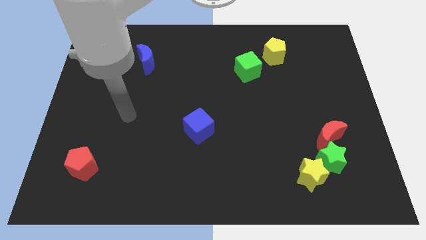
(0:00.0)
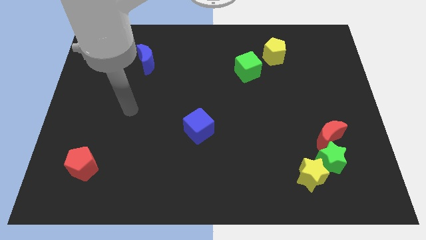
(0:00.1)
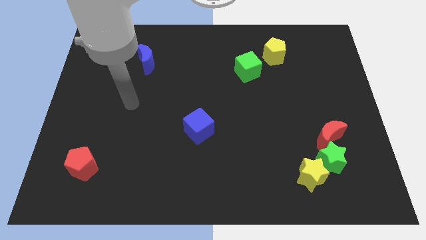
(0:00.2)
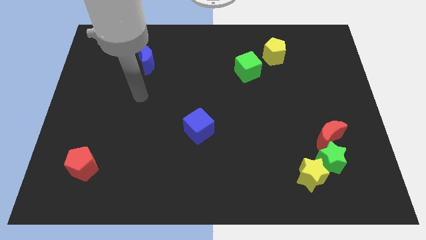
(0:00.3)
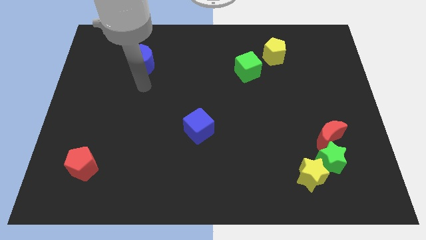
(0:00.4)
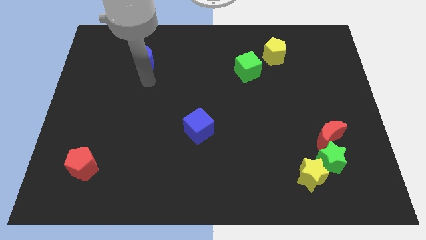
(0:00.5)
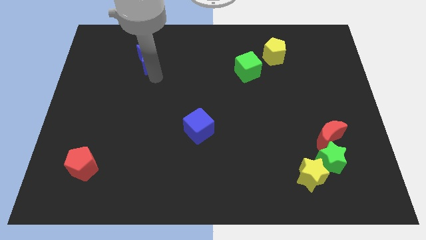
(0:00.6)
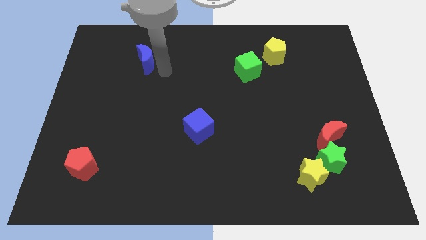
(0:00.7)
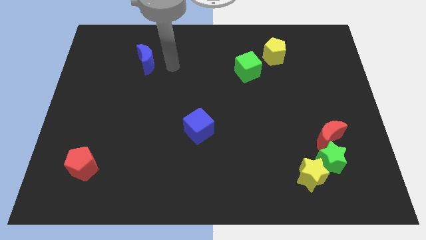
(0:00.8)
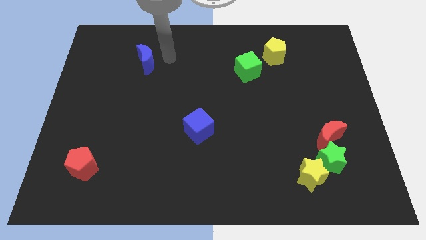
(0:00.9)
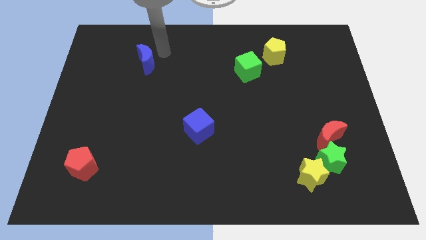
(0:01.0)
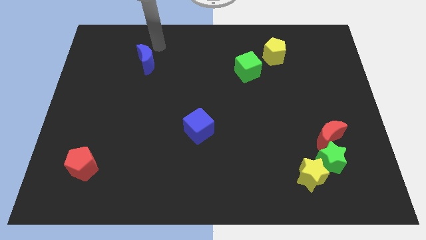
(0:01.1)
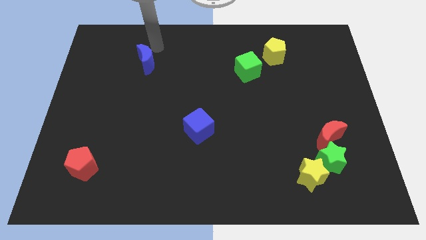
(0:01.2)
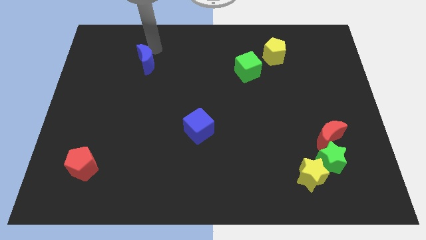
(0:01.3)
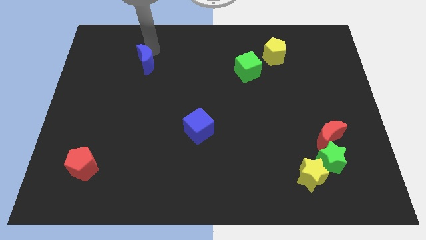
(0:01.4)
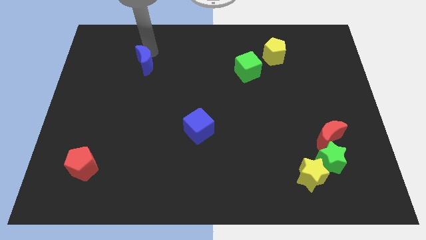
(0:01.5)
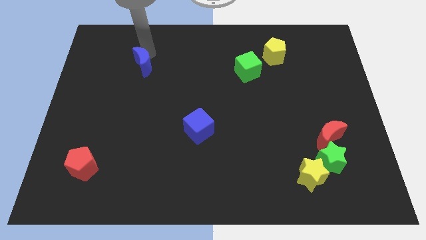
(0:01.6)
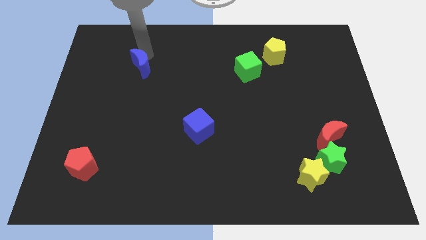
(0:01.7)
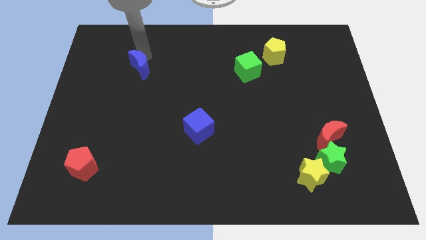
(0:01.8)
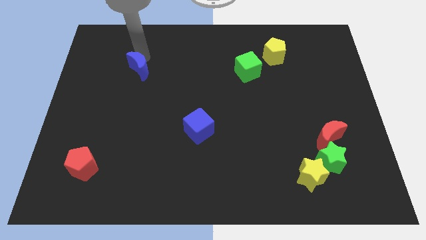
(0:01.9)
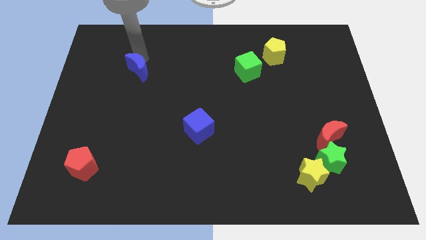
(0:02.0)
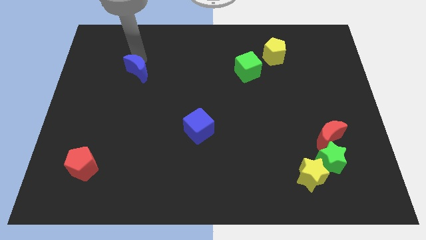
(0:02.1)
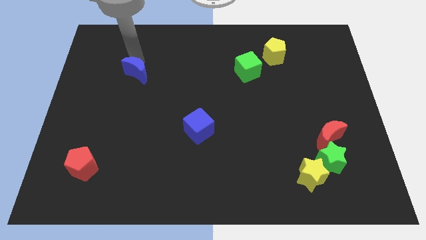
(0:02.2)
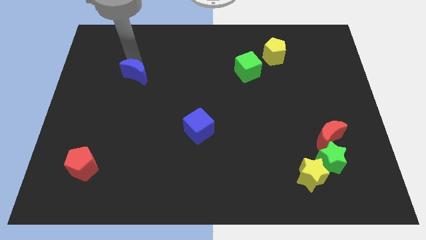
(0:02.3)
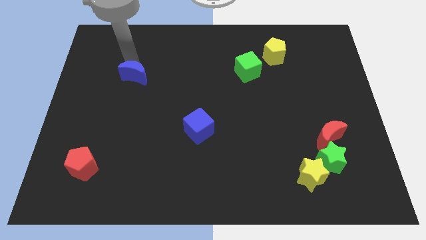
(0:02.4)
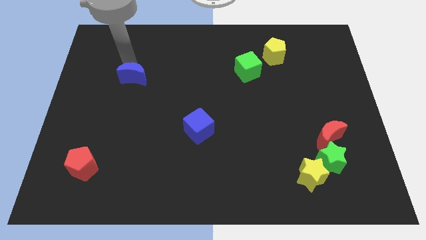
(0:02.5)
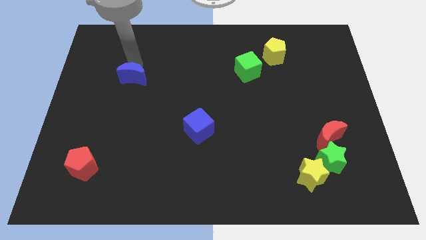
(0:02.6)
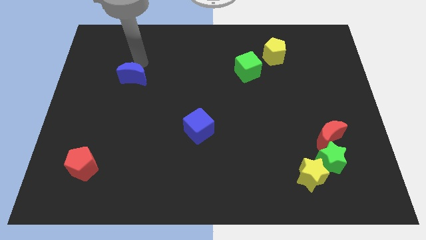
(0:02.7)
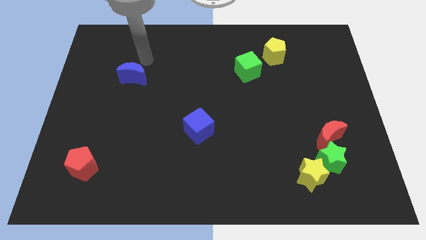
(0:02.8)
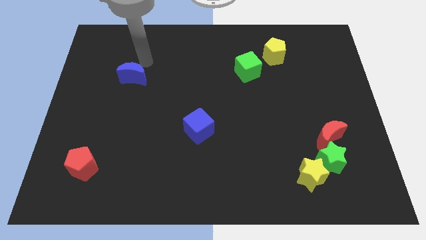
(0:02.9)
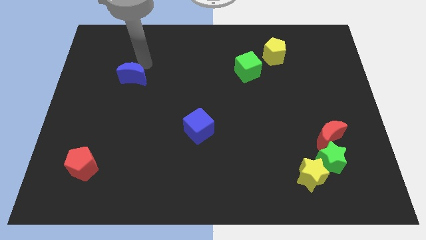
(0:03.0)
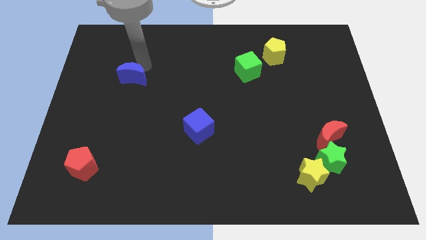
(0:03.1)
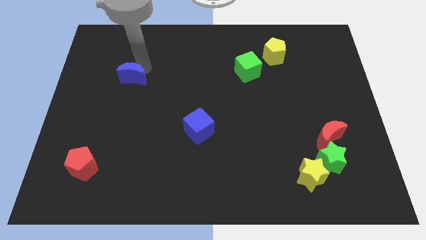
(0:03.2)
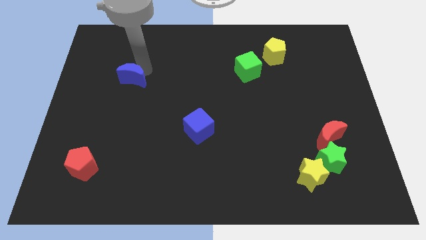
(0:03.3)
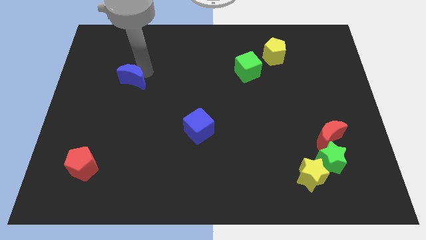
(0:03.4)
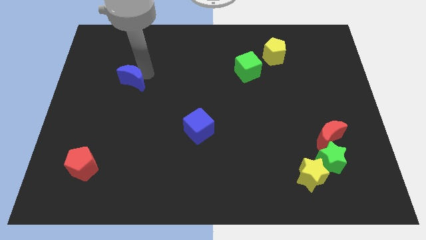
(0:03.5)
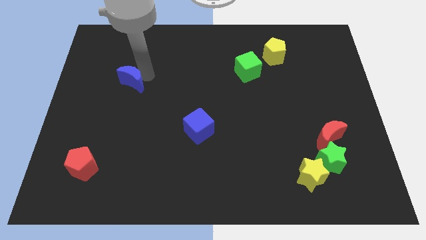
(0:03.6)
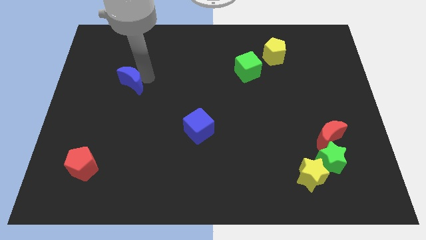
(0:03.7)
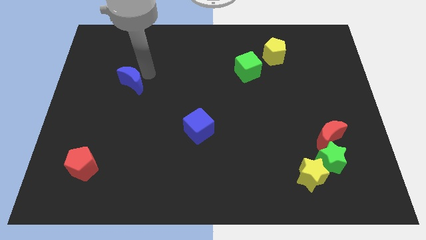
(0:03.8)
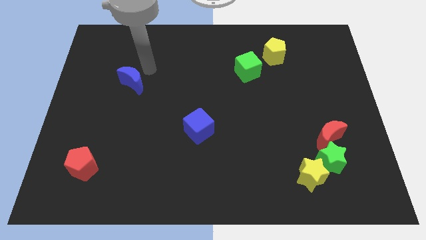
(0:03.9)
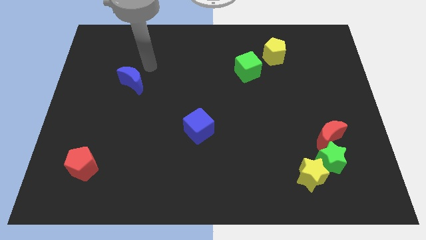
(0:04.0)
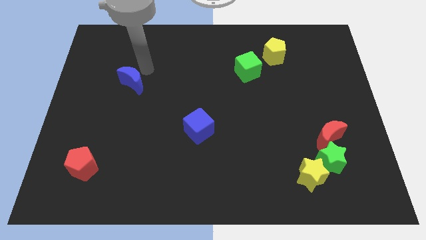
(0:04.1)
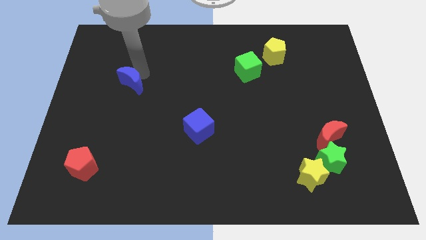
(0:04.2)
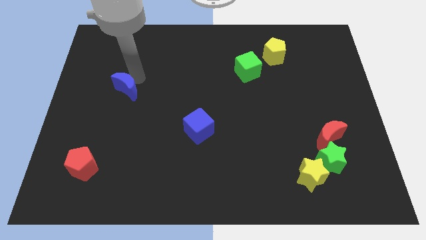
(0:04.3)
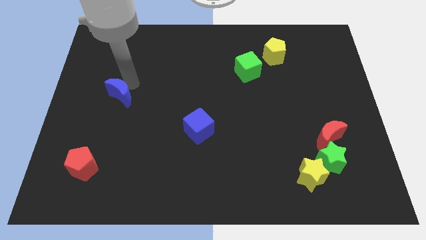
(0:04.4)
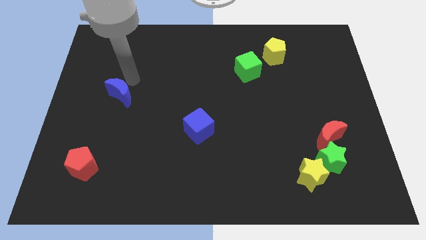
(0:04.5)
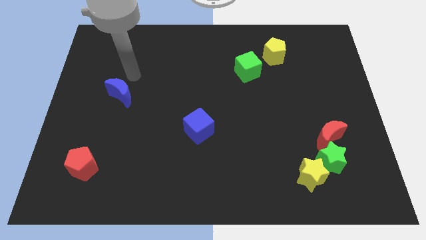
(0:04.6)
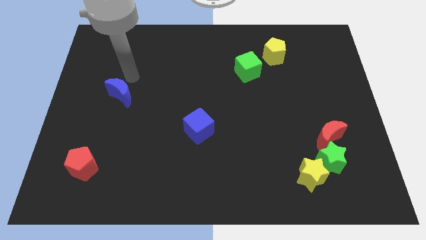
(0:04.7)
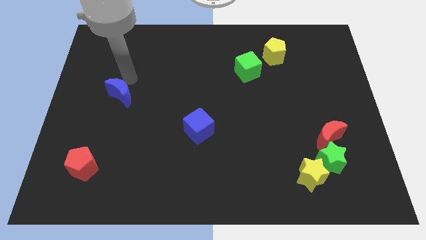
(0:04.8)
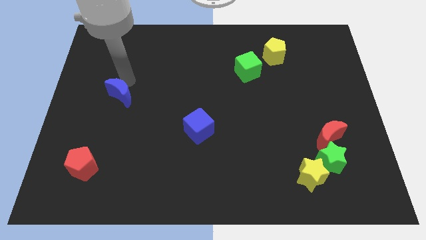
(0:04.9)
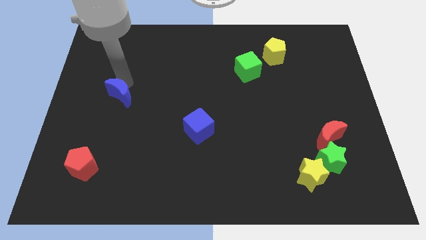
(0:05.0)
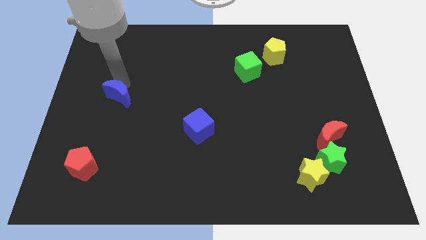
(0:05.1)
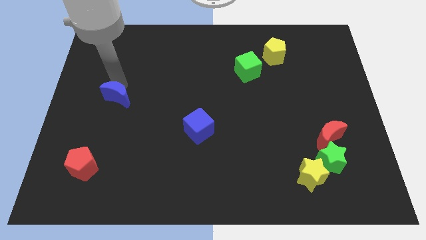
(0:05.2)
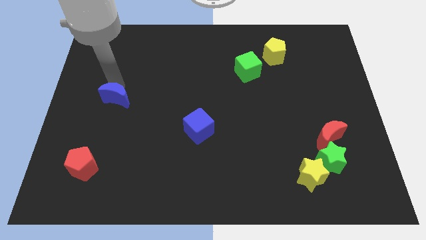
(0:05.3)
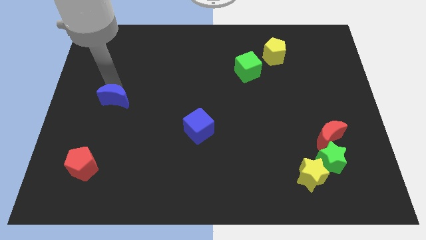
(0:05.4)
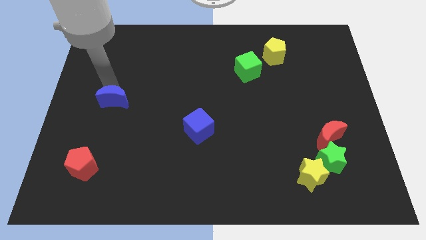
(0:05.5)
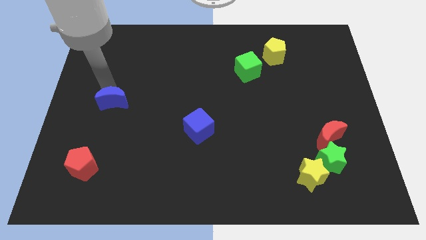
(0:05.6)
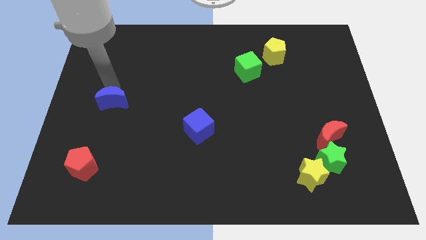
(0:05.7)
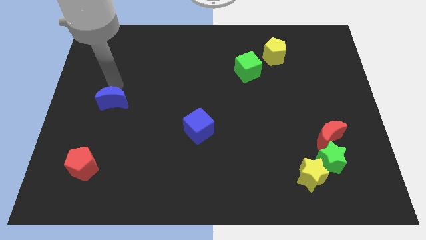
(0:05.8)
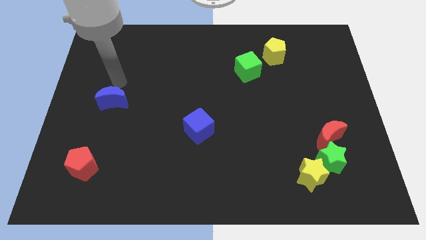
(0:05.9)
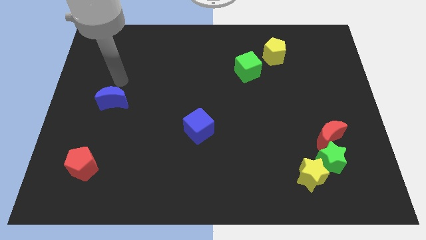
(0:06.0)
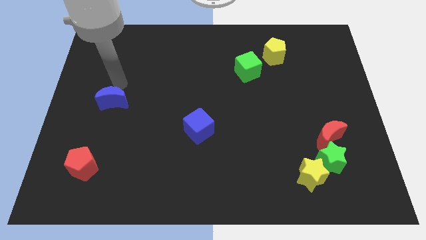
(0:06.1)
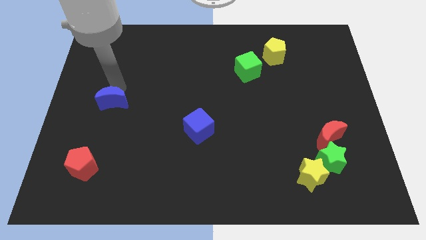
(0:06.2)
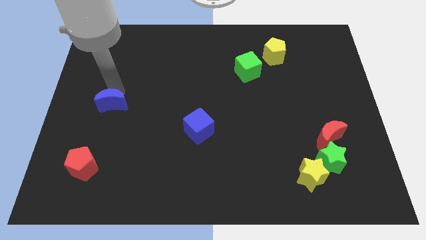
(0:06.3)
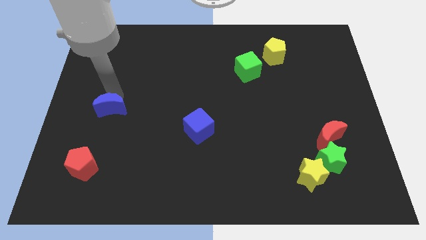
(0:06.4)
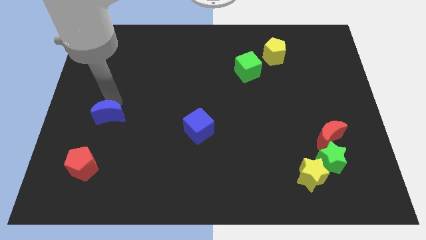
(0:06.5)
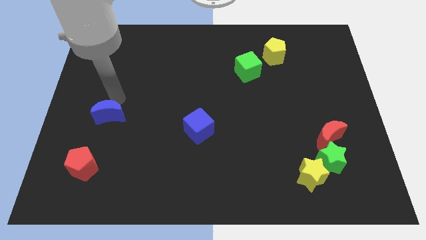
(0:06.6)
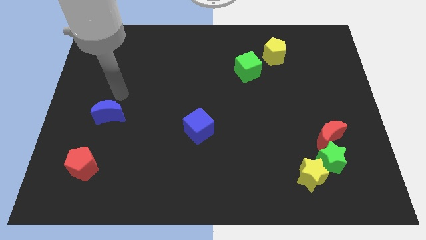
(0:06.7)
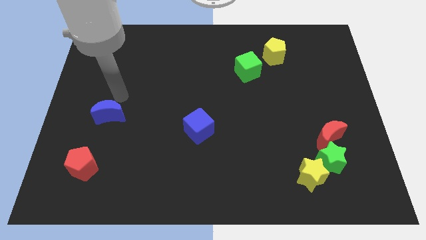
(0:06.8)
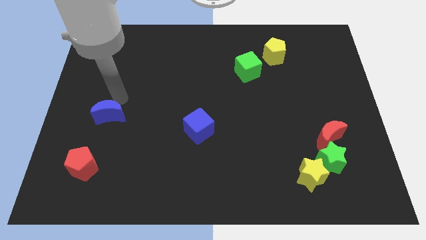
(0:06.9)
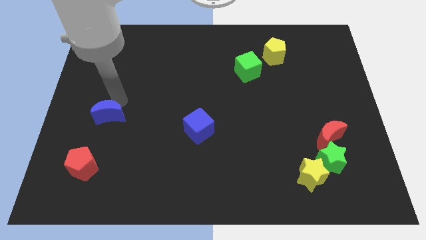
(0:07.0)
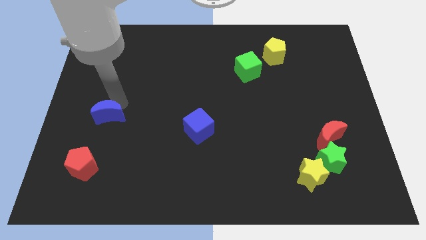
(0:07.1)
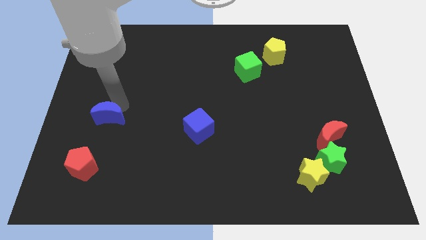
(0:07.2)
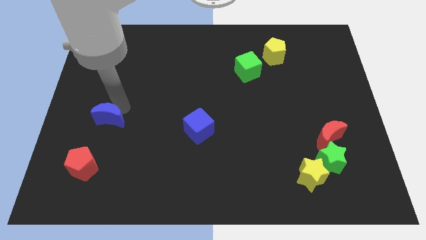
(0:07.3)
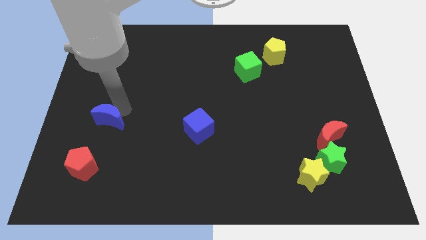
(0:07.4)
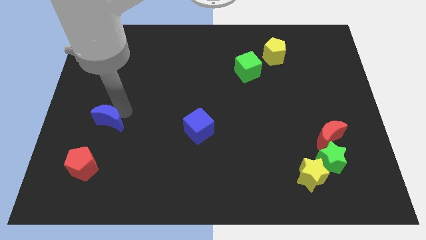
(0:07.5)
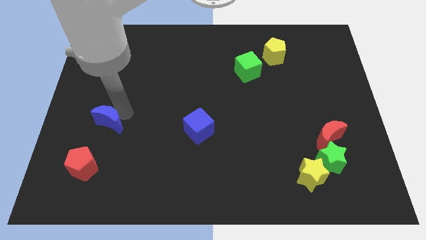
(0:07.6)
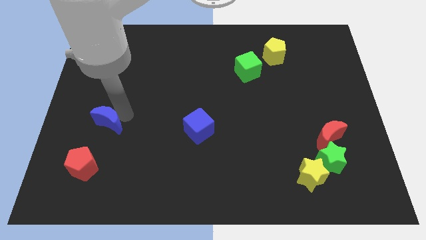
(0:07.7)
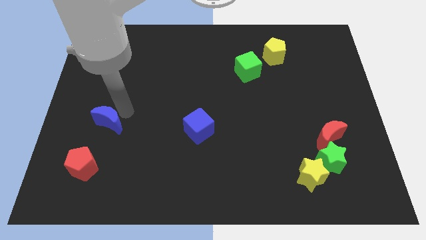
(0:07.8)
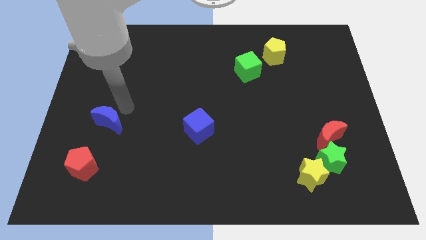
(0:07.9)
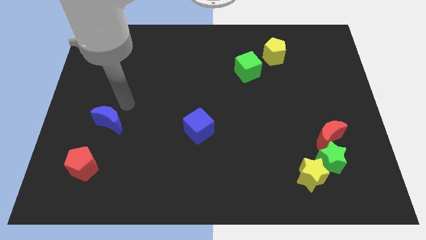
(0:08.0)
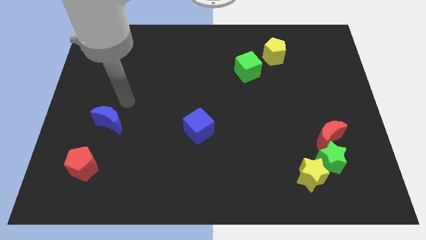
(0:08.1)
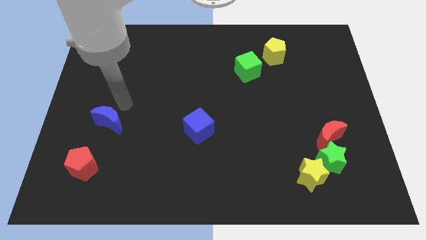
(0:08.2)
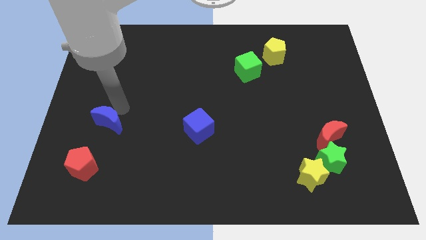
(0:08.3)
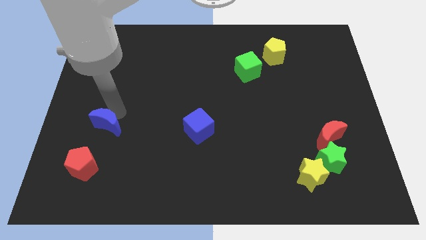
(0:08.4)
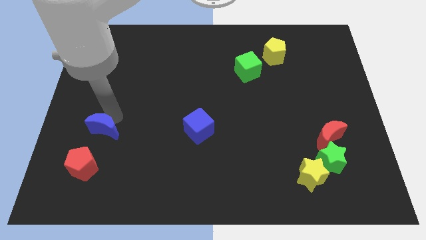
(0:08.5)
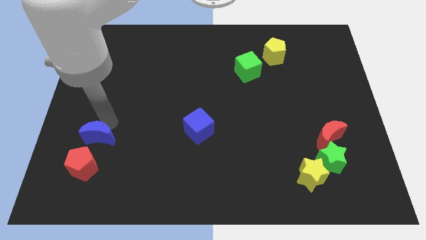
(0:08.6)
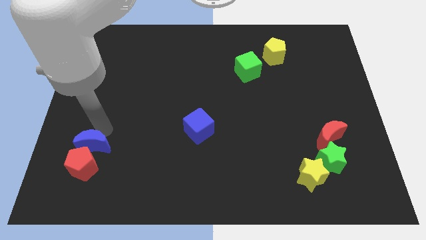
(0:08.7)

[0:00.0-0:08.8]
move the blue moon next to the red pentagon
